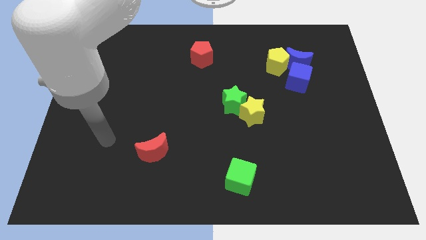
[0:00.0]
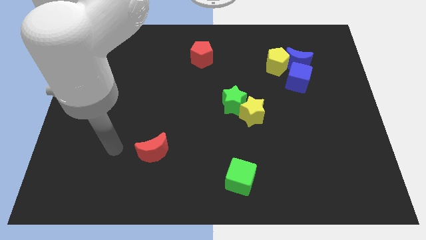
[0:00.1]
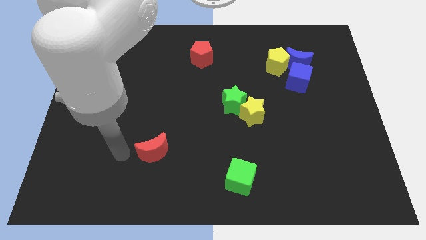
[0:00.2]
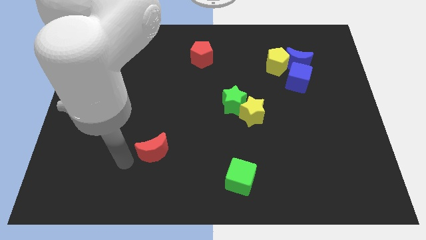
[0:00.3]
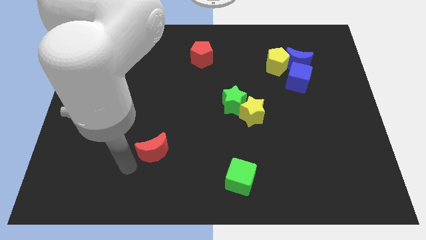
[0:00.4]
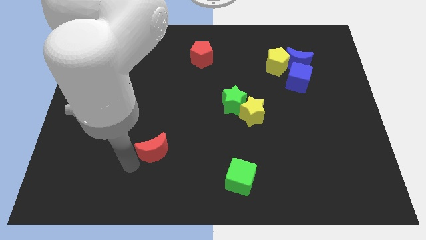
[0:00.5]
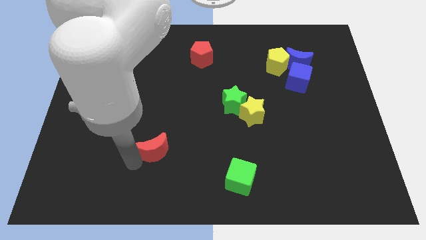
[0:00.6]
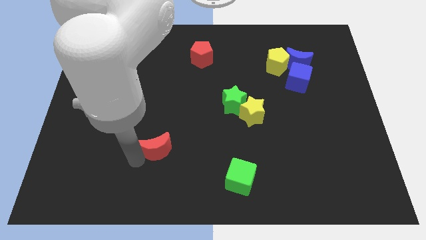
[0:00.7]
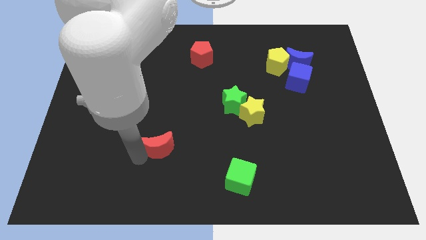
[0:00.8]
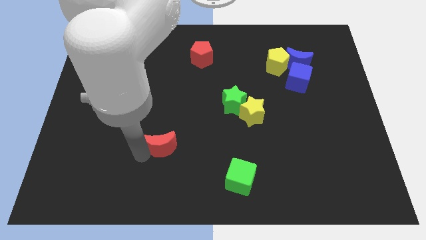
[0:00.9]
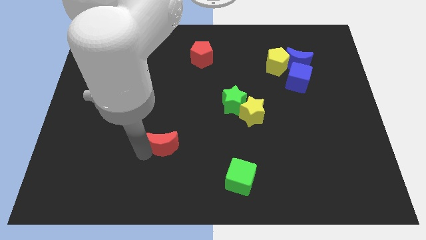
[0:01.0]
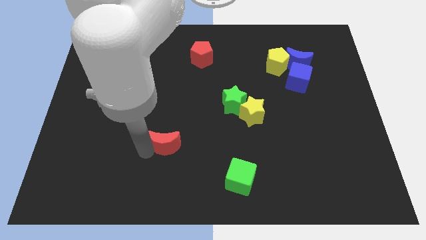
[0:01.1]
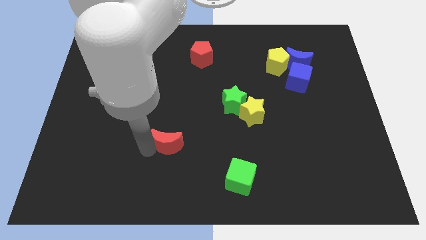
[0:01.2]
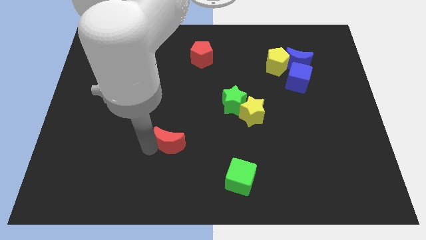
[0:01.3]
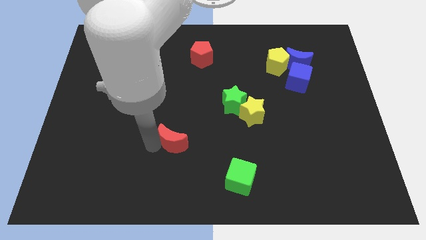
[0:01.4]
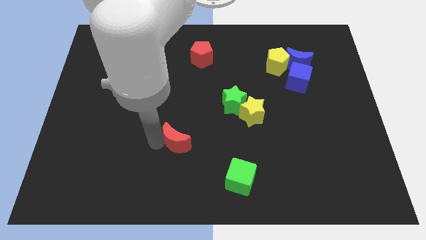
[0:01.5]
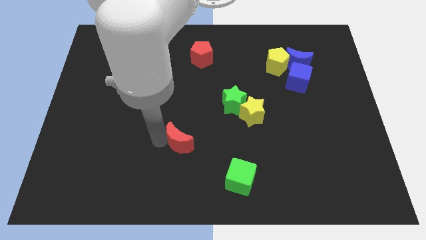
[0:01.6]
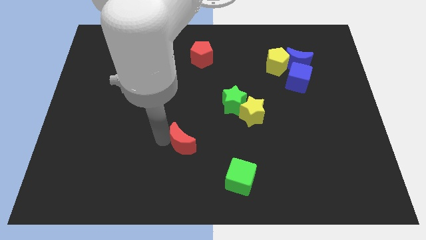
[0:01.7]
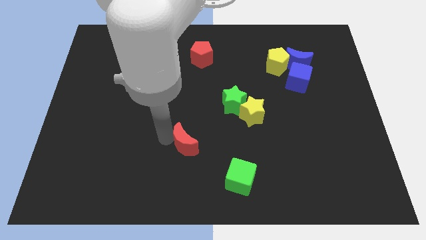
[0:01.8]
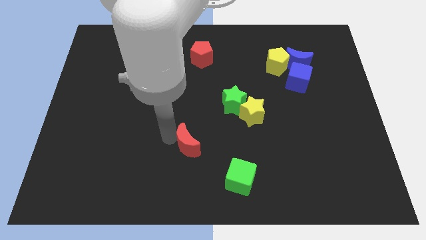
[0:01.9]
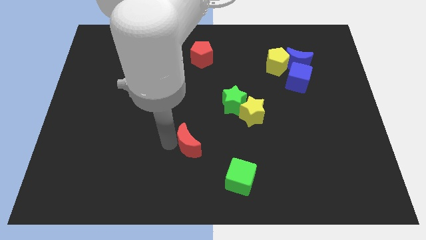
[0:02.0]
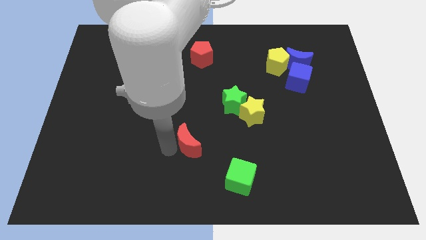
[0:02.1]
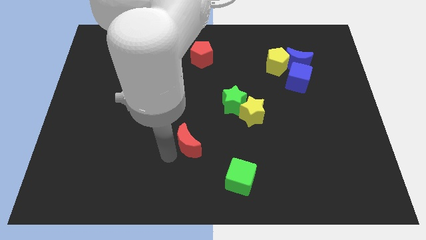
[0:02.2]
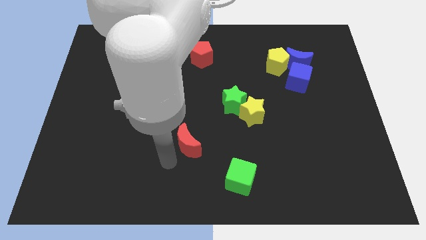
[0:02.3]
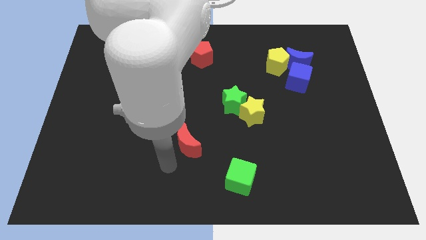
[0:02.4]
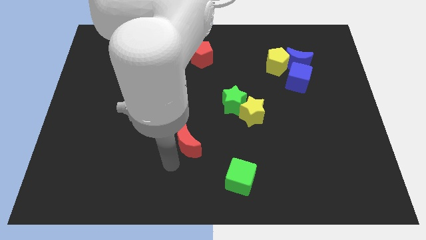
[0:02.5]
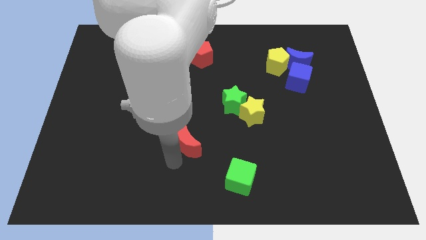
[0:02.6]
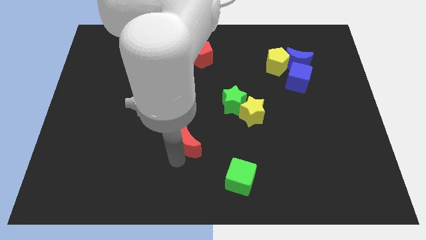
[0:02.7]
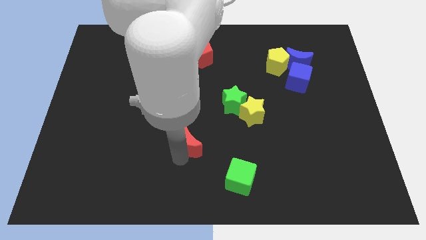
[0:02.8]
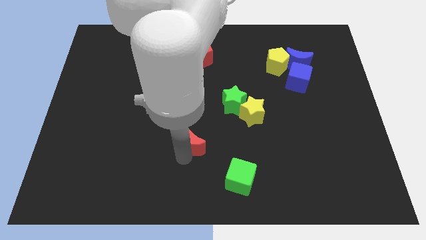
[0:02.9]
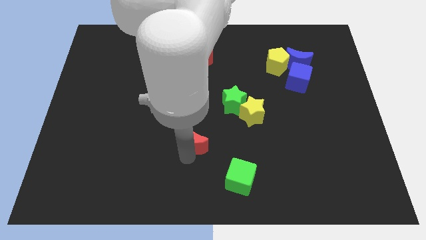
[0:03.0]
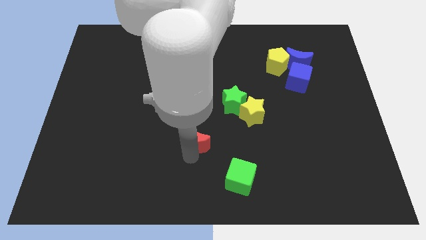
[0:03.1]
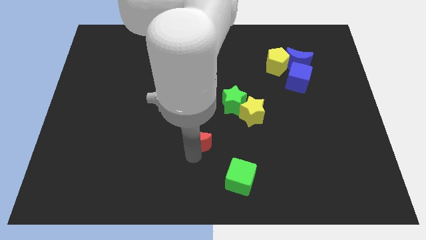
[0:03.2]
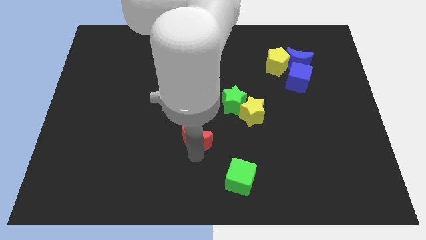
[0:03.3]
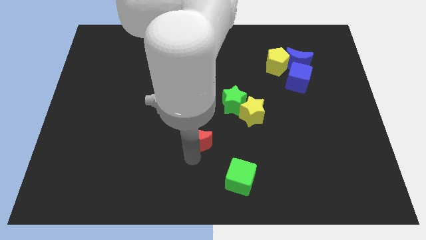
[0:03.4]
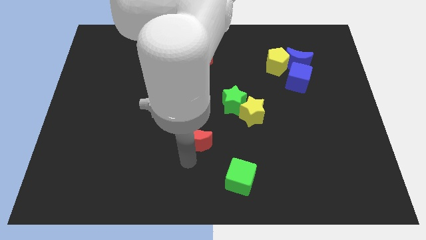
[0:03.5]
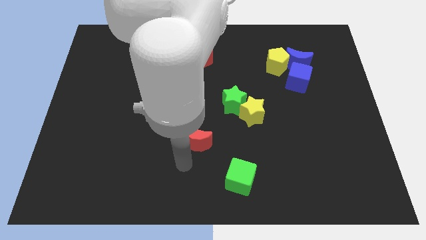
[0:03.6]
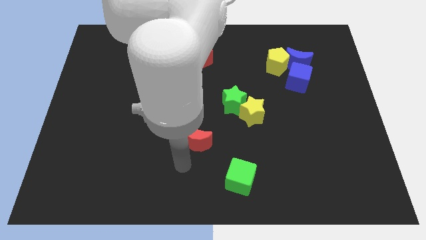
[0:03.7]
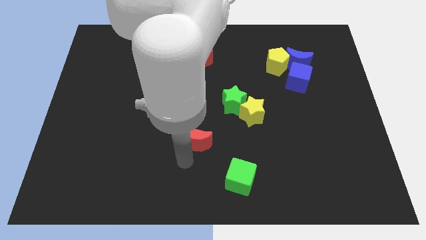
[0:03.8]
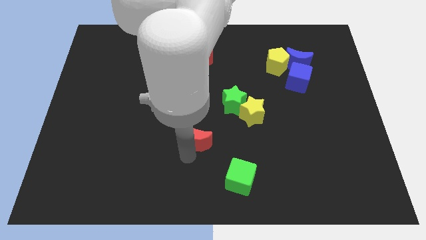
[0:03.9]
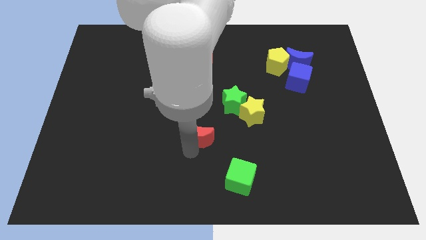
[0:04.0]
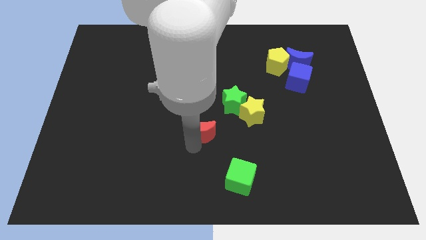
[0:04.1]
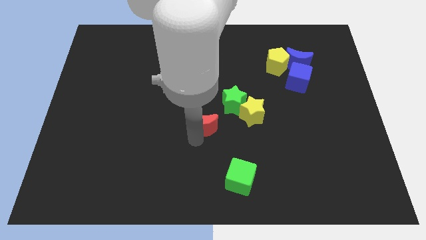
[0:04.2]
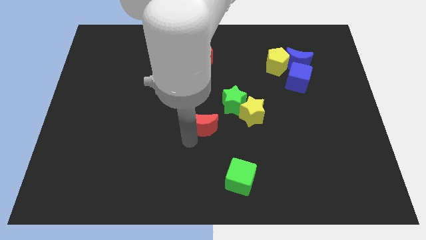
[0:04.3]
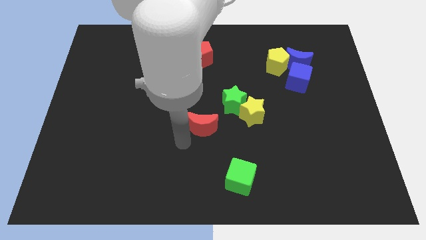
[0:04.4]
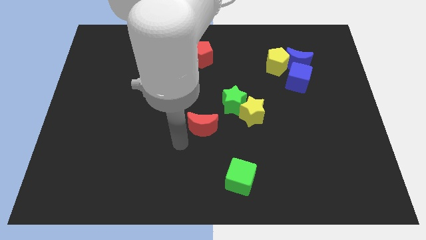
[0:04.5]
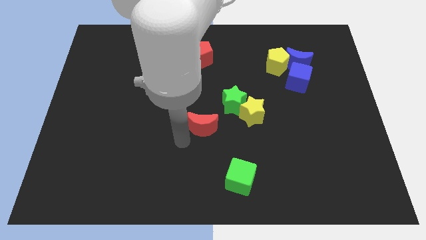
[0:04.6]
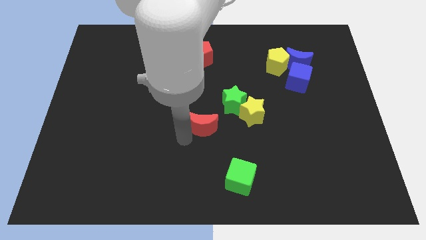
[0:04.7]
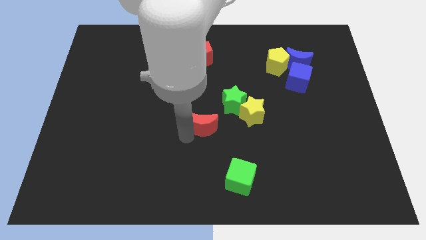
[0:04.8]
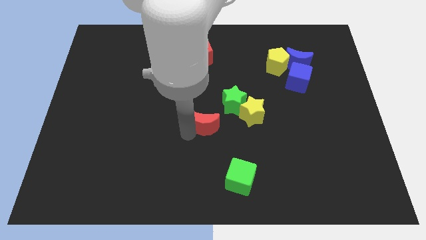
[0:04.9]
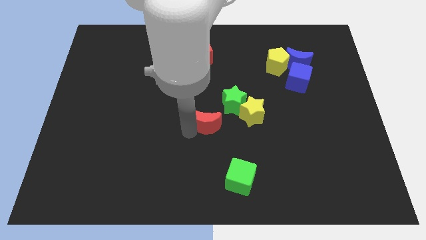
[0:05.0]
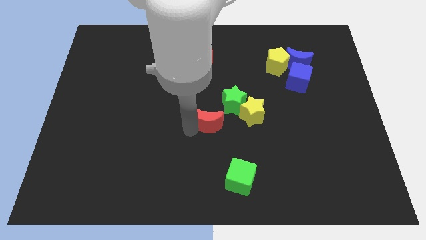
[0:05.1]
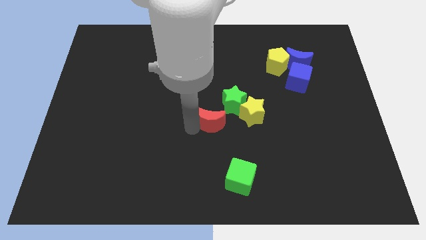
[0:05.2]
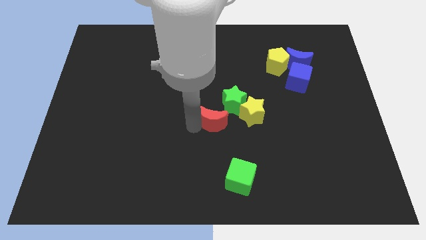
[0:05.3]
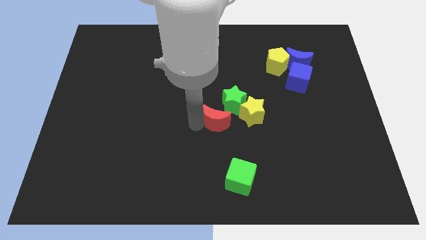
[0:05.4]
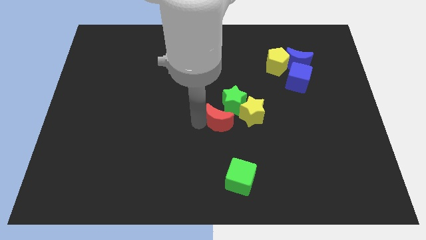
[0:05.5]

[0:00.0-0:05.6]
slide the red moon towards the green star

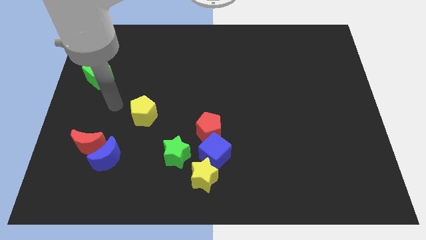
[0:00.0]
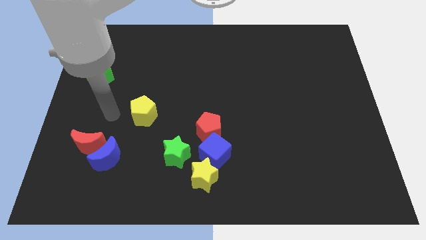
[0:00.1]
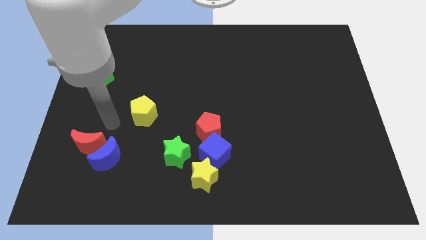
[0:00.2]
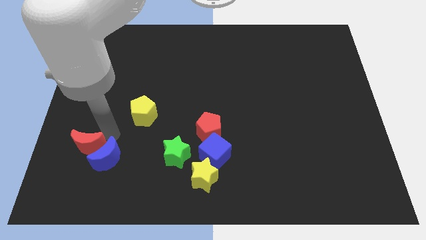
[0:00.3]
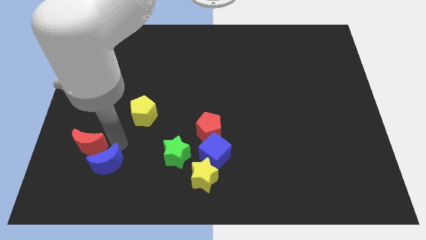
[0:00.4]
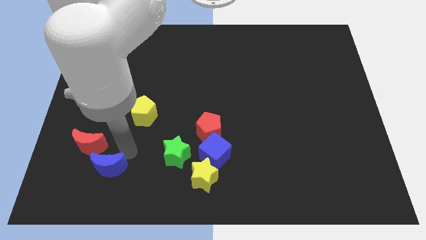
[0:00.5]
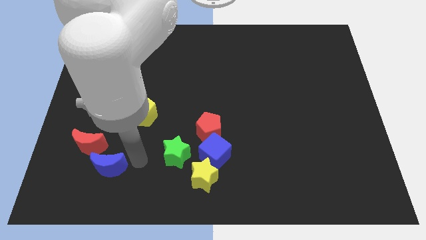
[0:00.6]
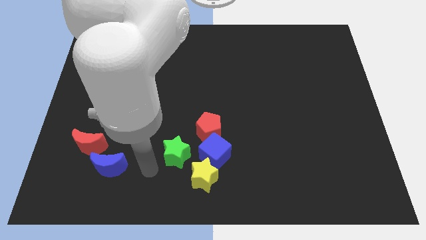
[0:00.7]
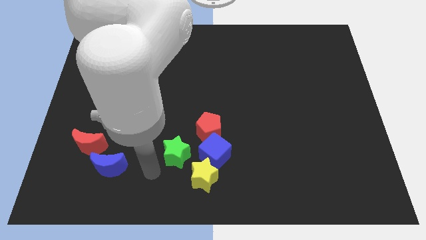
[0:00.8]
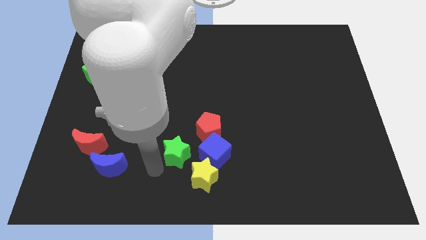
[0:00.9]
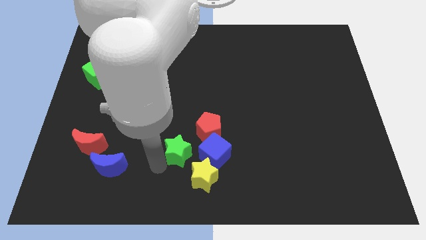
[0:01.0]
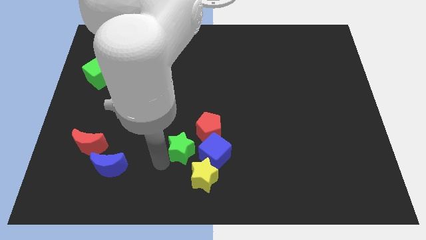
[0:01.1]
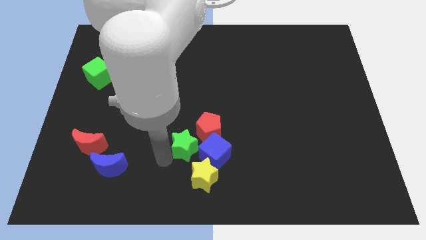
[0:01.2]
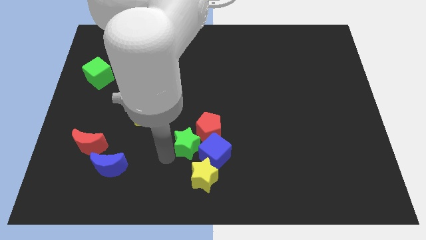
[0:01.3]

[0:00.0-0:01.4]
move the green star to the red pentagon
